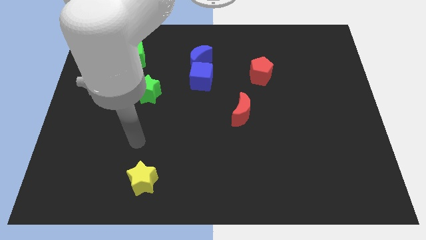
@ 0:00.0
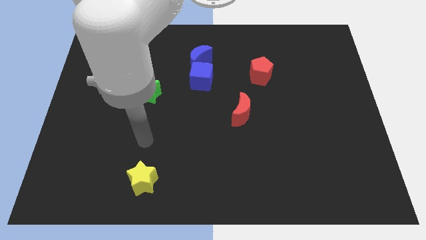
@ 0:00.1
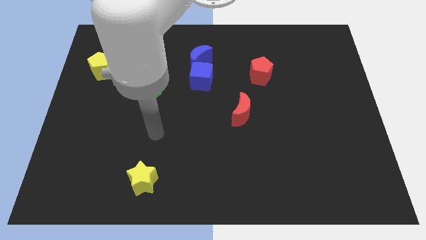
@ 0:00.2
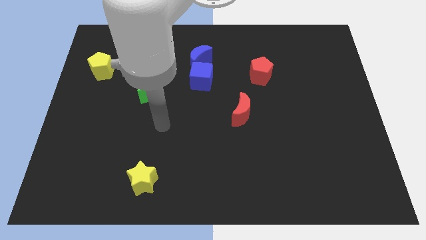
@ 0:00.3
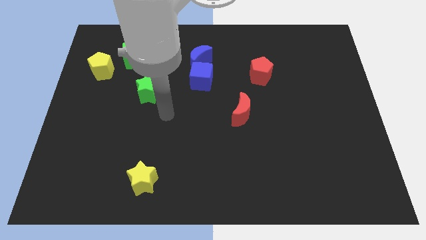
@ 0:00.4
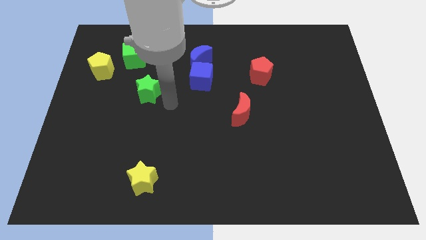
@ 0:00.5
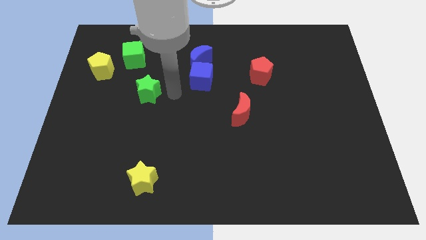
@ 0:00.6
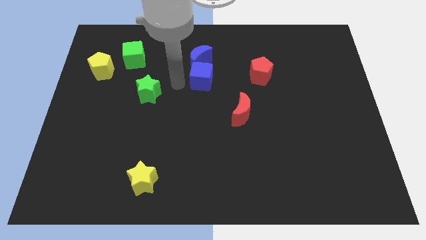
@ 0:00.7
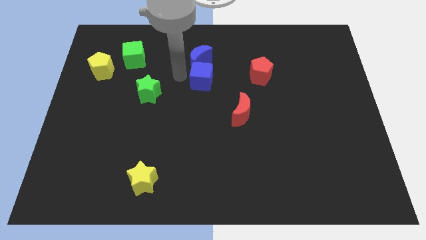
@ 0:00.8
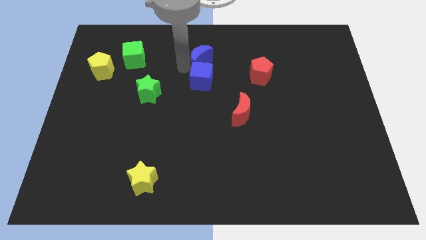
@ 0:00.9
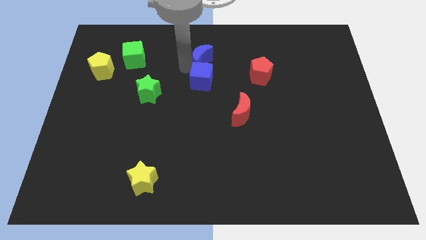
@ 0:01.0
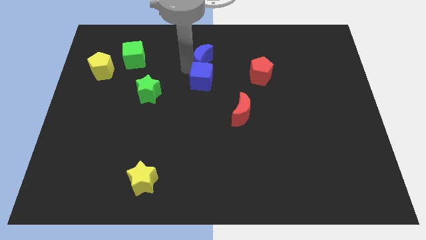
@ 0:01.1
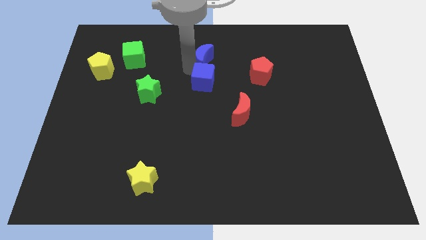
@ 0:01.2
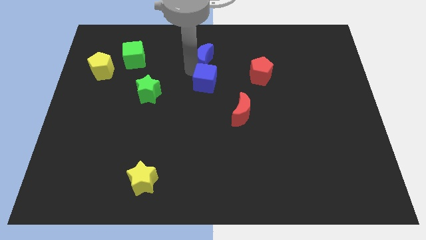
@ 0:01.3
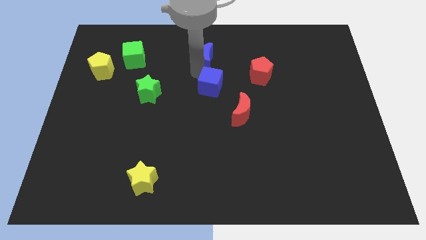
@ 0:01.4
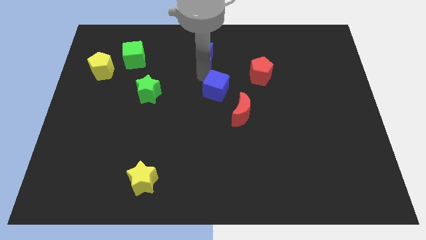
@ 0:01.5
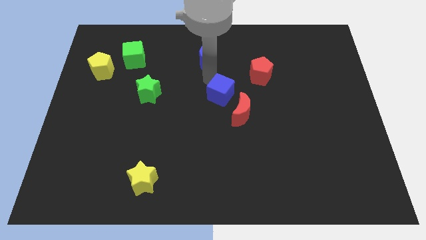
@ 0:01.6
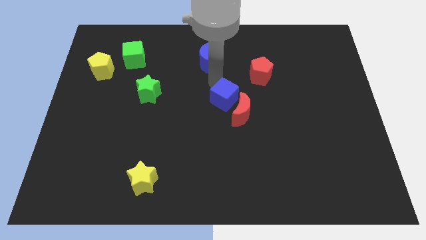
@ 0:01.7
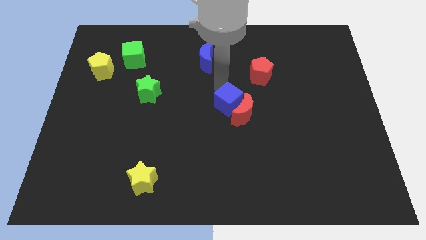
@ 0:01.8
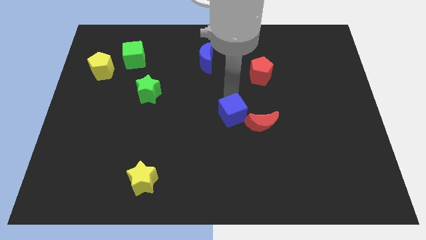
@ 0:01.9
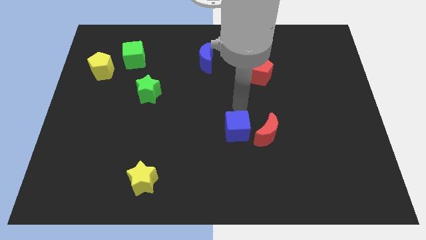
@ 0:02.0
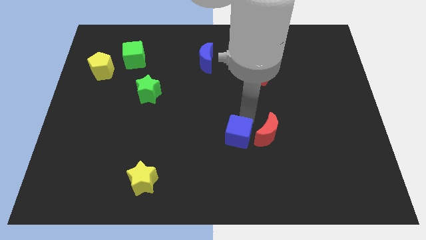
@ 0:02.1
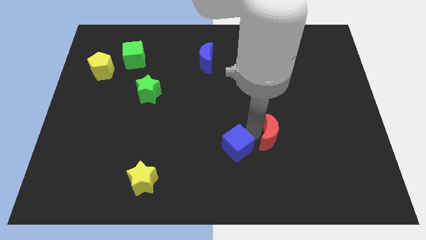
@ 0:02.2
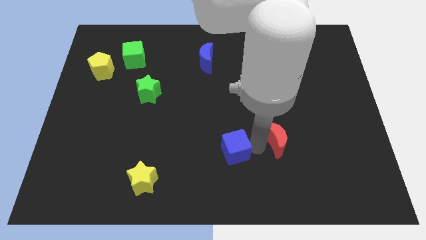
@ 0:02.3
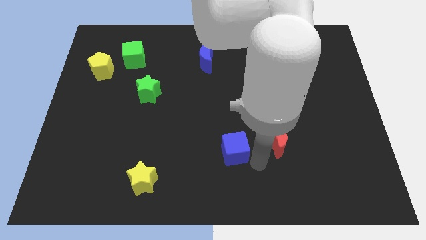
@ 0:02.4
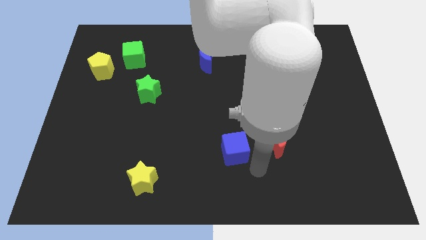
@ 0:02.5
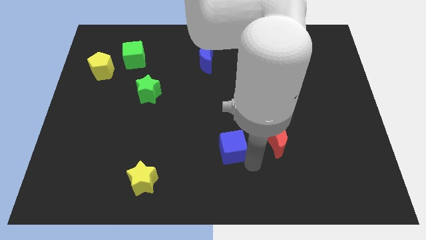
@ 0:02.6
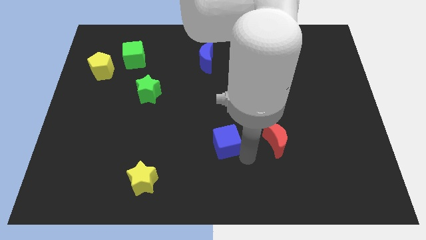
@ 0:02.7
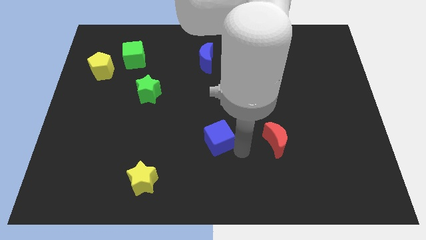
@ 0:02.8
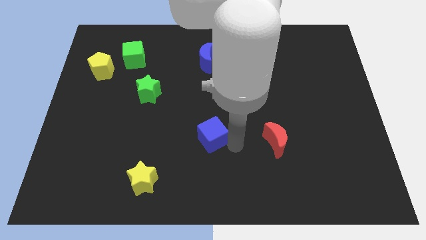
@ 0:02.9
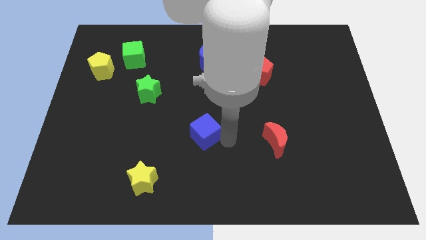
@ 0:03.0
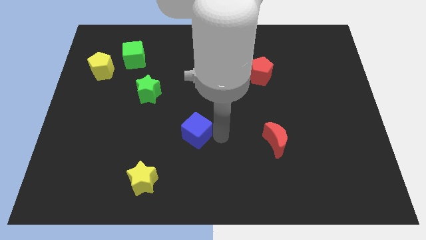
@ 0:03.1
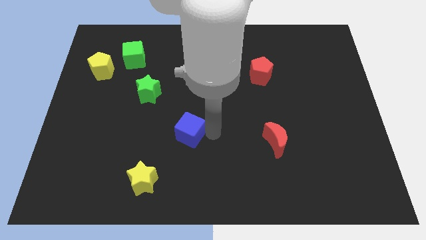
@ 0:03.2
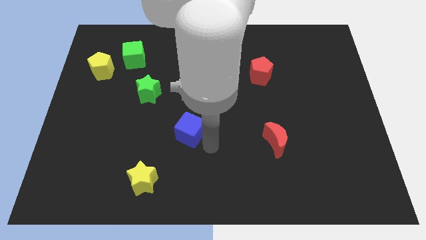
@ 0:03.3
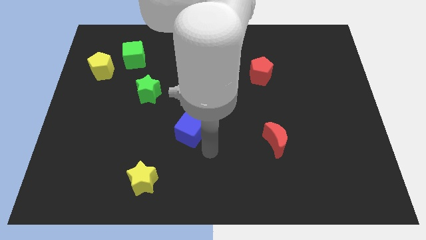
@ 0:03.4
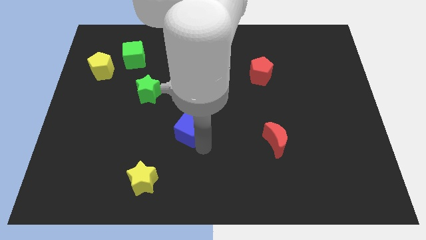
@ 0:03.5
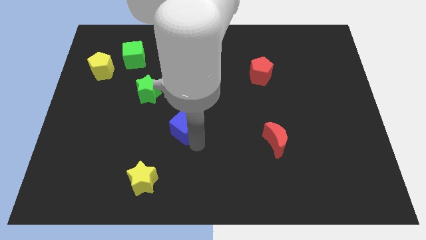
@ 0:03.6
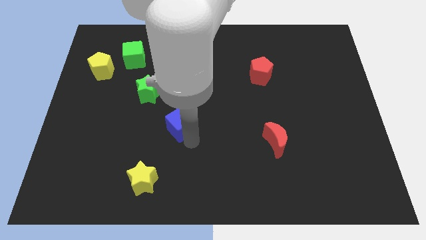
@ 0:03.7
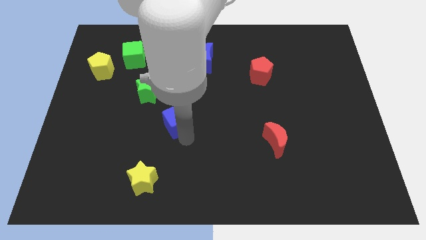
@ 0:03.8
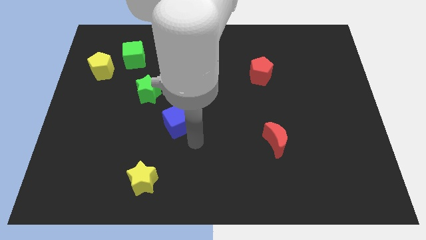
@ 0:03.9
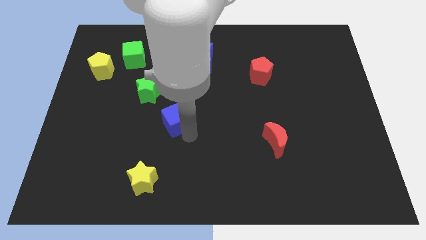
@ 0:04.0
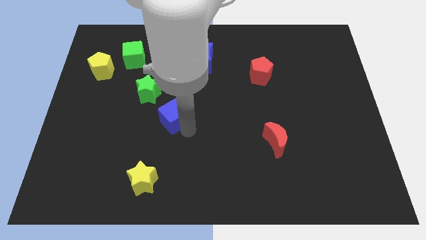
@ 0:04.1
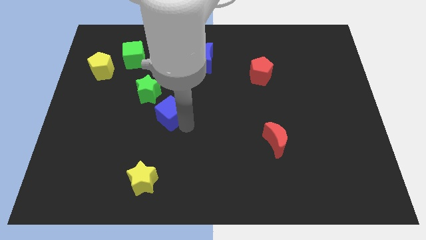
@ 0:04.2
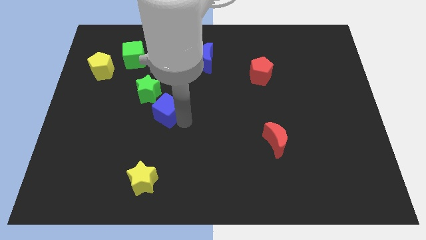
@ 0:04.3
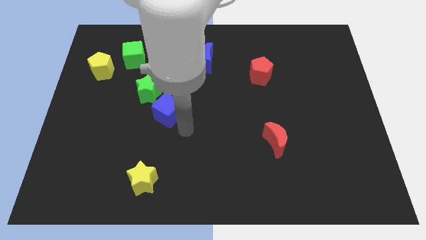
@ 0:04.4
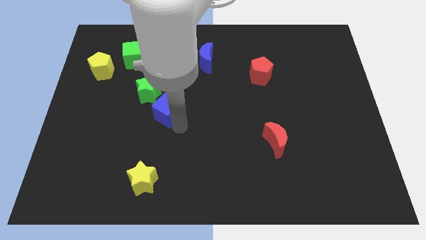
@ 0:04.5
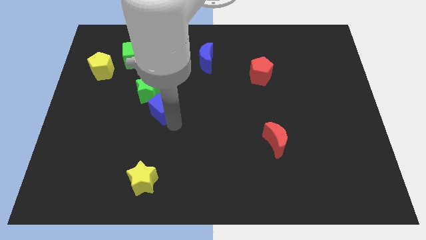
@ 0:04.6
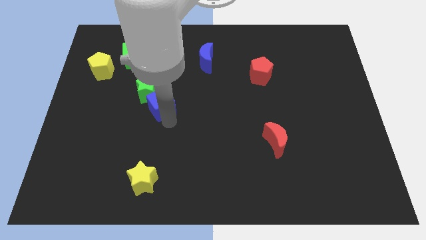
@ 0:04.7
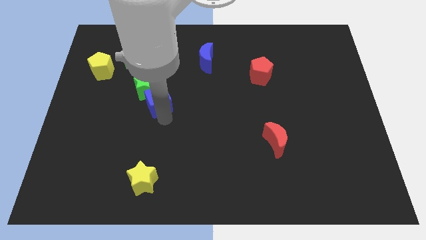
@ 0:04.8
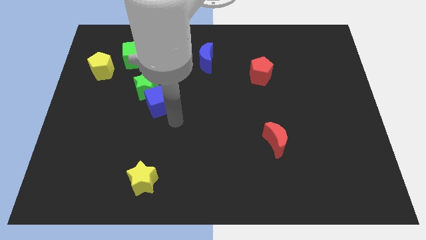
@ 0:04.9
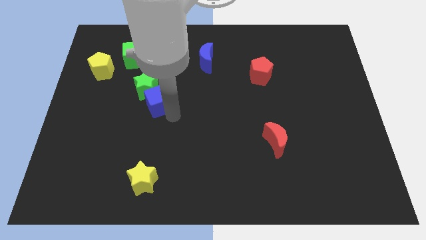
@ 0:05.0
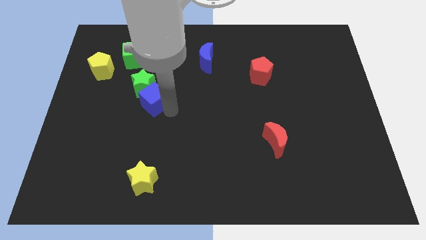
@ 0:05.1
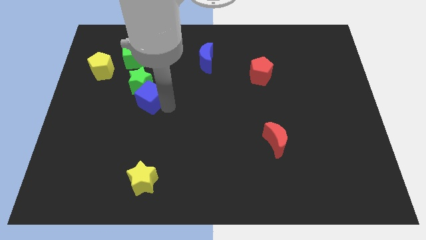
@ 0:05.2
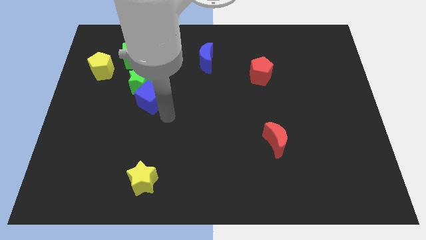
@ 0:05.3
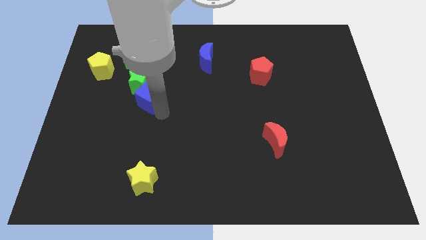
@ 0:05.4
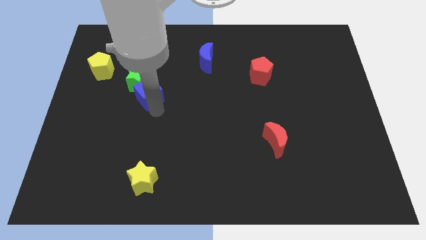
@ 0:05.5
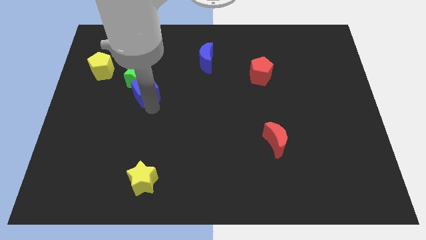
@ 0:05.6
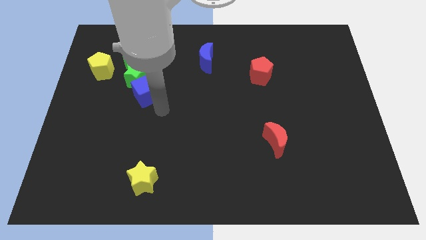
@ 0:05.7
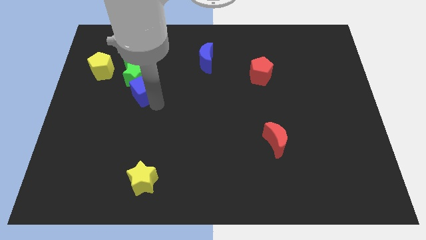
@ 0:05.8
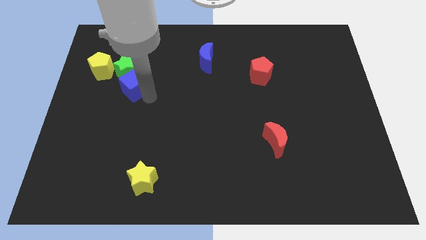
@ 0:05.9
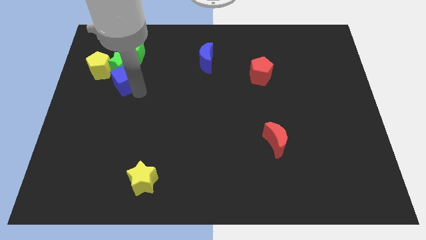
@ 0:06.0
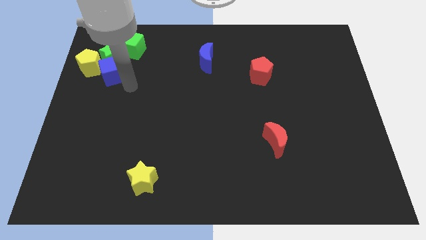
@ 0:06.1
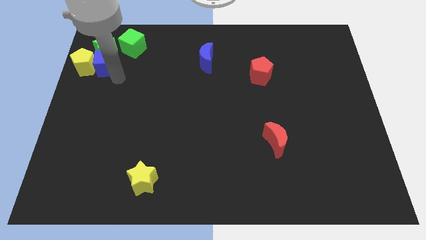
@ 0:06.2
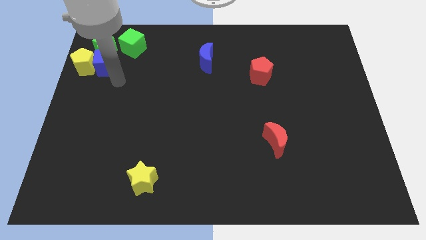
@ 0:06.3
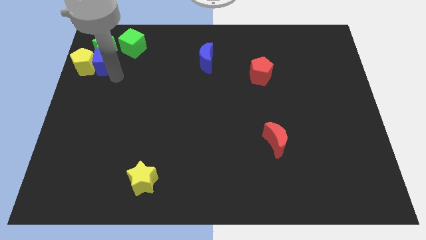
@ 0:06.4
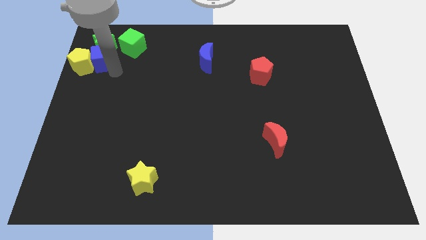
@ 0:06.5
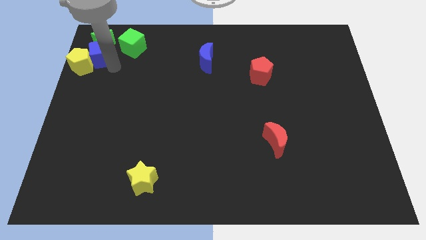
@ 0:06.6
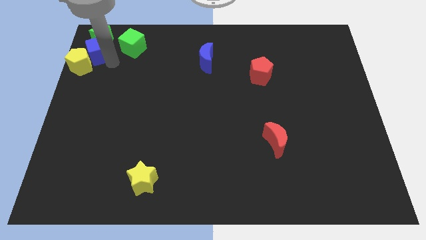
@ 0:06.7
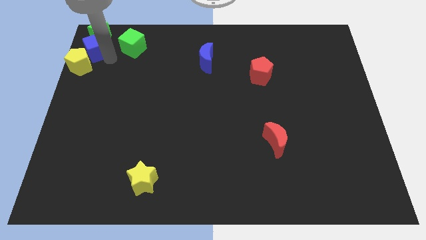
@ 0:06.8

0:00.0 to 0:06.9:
put the blue cube to the top left of the board
